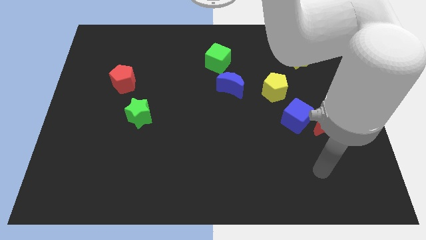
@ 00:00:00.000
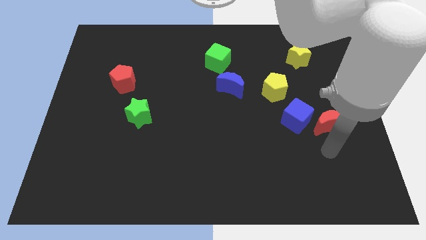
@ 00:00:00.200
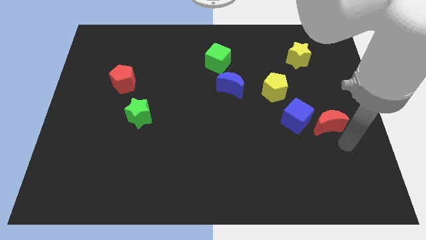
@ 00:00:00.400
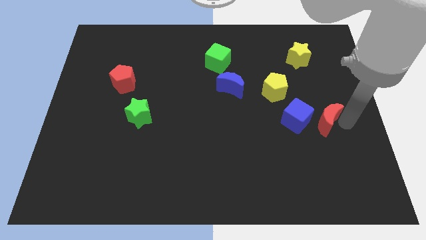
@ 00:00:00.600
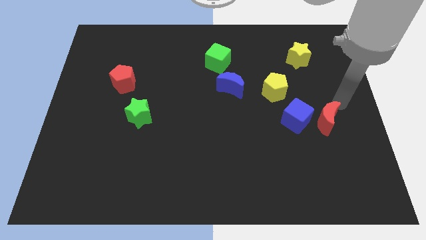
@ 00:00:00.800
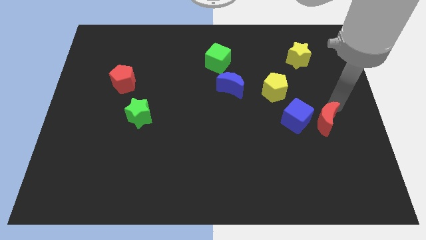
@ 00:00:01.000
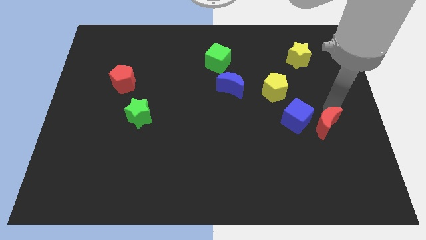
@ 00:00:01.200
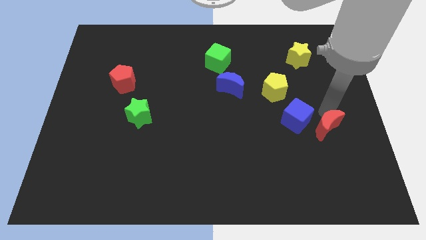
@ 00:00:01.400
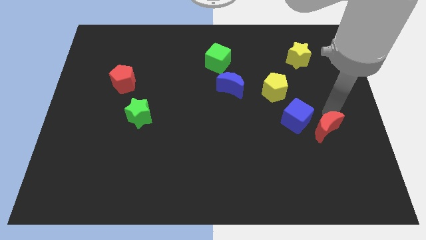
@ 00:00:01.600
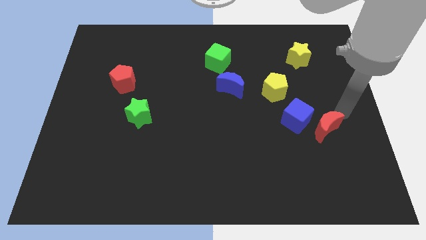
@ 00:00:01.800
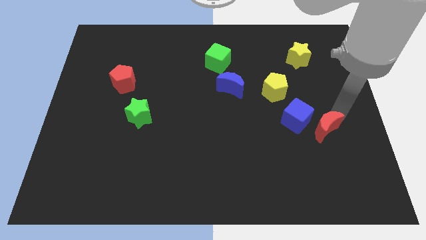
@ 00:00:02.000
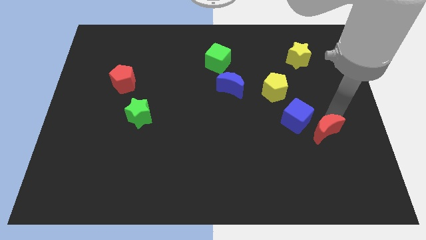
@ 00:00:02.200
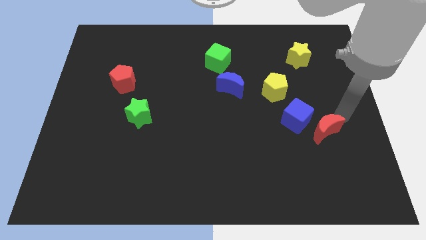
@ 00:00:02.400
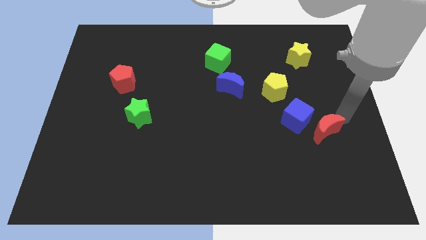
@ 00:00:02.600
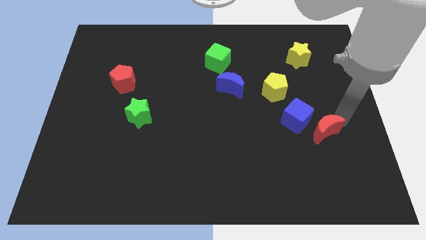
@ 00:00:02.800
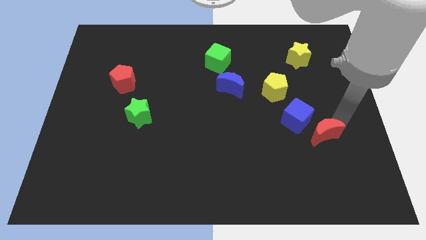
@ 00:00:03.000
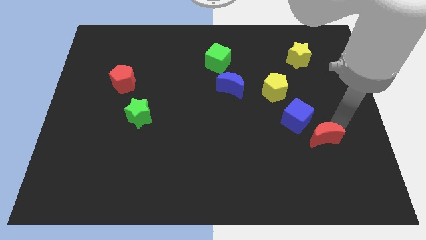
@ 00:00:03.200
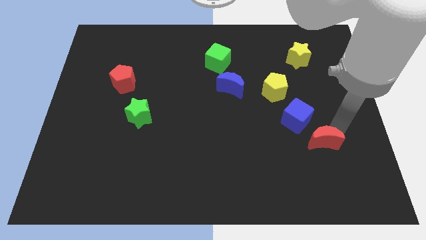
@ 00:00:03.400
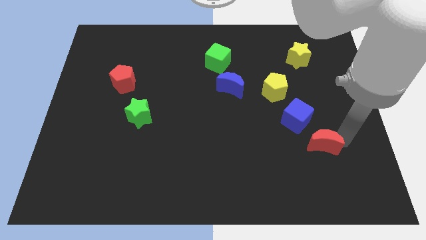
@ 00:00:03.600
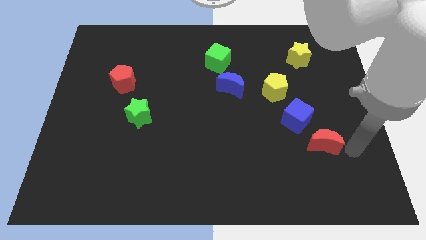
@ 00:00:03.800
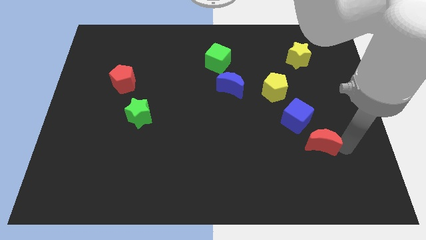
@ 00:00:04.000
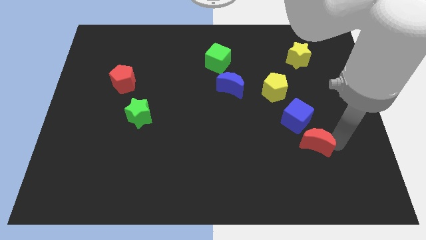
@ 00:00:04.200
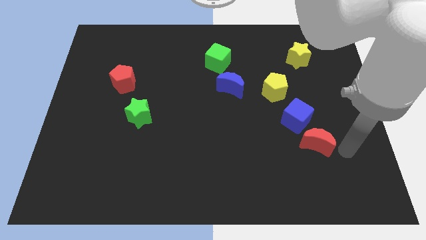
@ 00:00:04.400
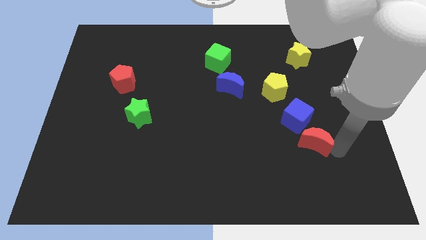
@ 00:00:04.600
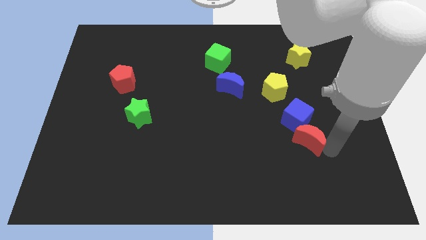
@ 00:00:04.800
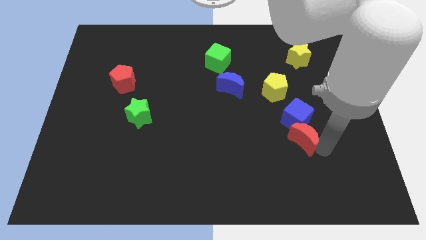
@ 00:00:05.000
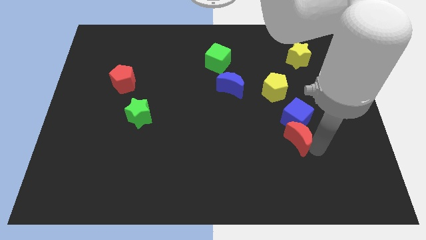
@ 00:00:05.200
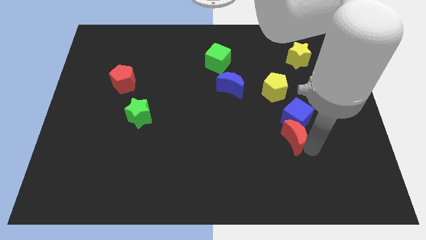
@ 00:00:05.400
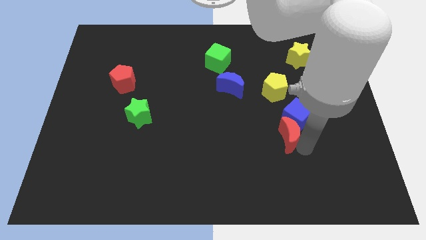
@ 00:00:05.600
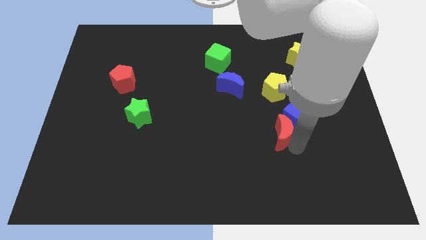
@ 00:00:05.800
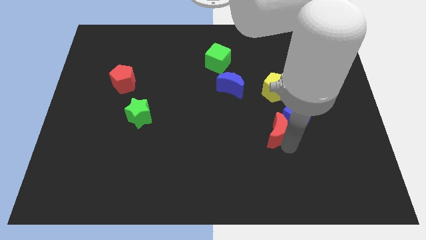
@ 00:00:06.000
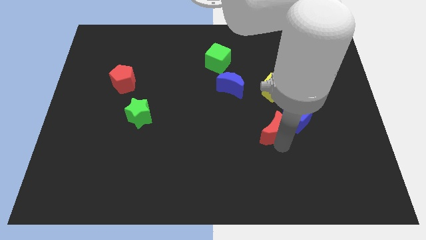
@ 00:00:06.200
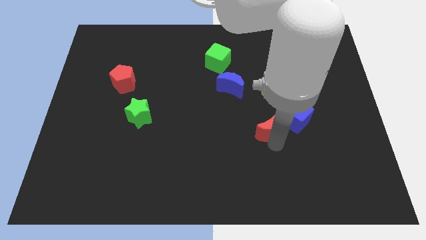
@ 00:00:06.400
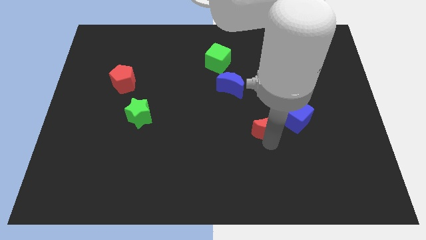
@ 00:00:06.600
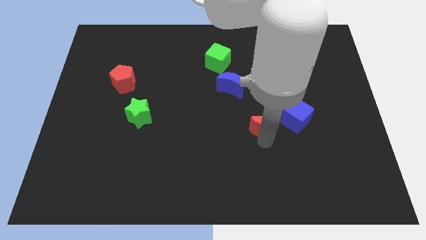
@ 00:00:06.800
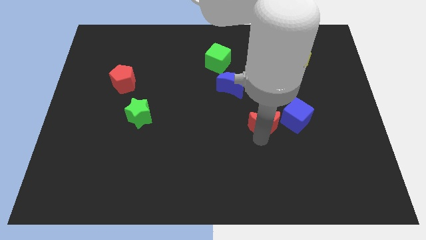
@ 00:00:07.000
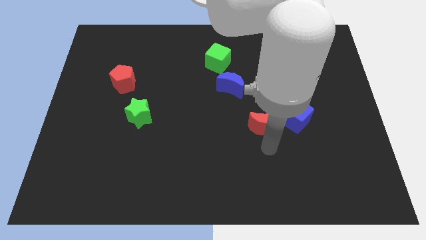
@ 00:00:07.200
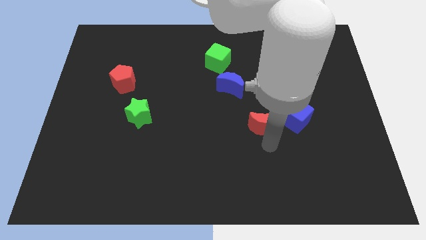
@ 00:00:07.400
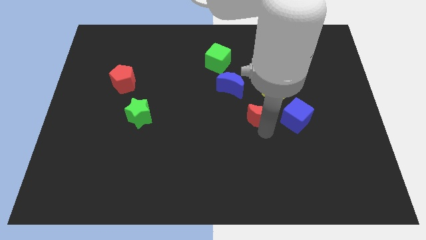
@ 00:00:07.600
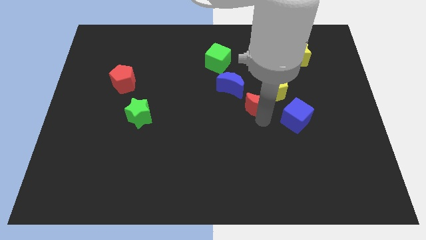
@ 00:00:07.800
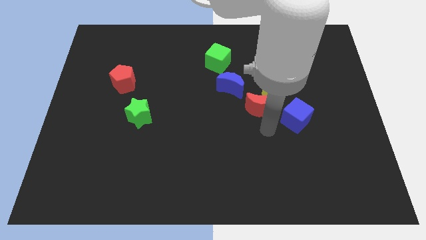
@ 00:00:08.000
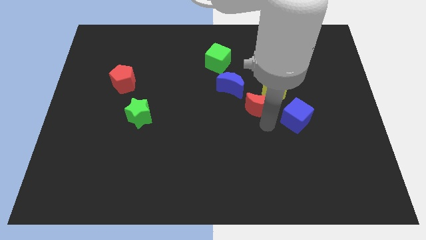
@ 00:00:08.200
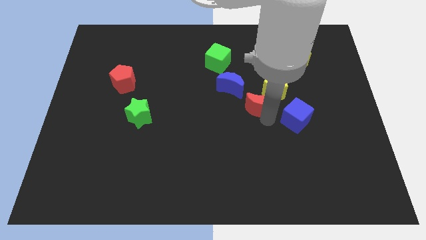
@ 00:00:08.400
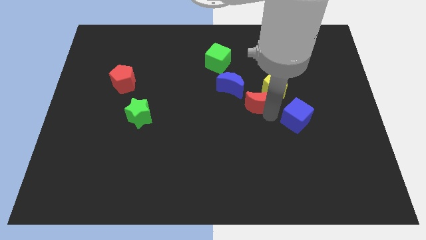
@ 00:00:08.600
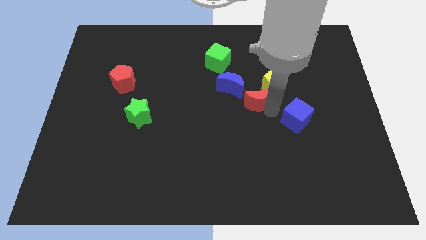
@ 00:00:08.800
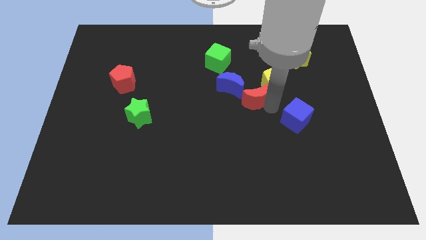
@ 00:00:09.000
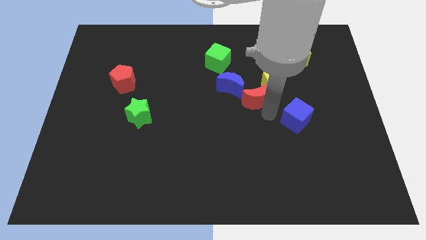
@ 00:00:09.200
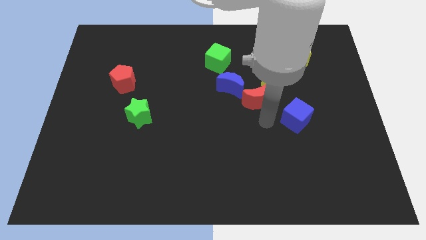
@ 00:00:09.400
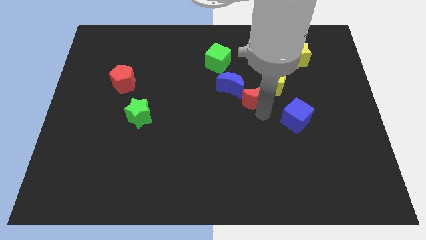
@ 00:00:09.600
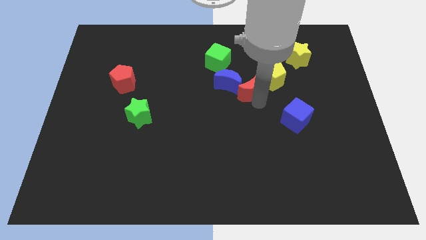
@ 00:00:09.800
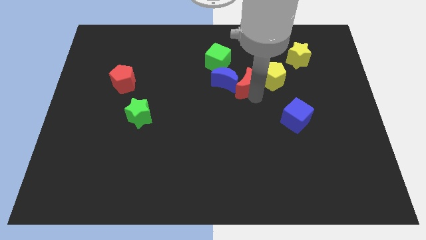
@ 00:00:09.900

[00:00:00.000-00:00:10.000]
push the red moon diagonally down and to the right of the green cube

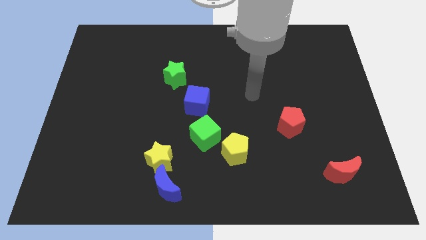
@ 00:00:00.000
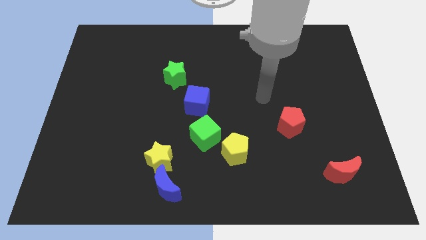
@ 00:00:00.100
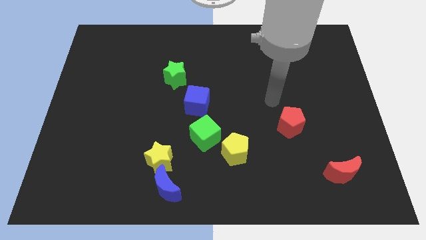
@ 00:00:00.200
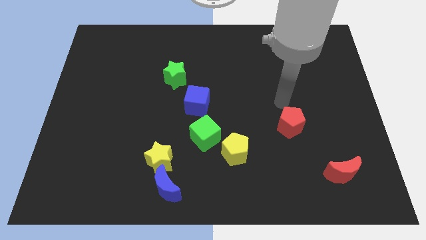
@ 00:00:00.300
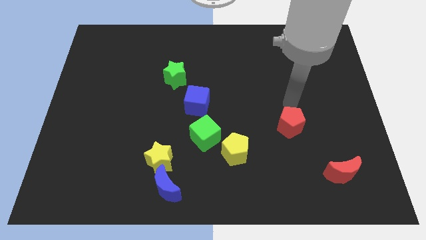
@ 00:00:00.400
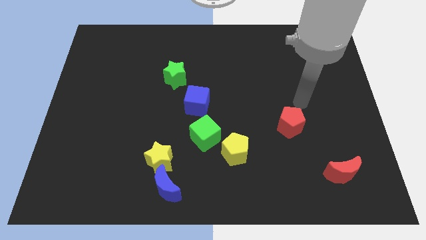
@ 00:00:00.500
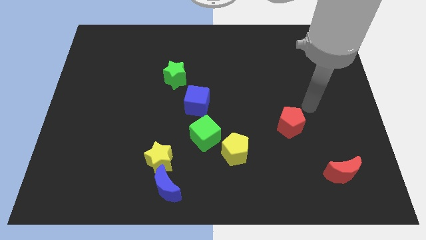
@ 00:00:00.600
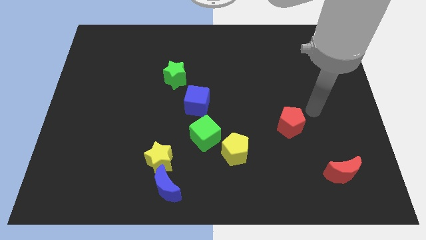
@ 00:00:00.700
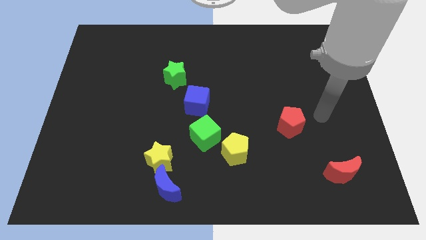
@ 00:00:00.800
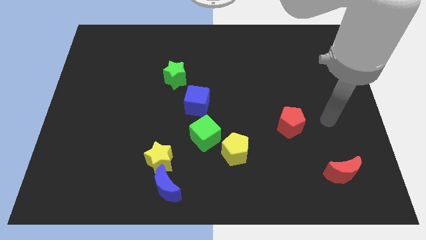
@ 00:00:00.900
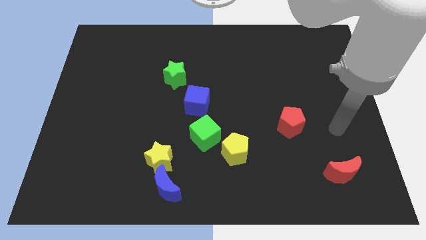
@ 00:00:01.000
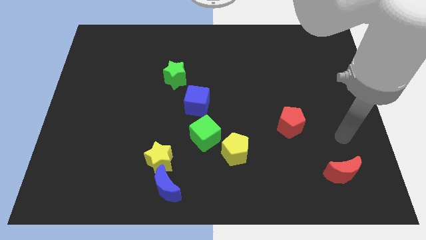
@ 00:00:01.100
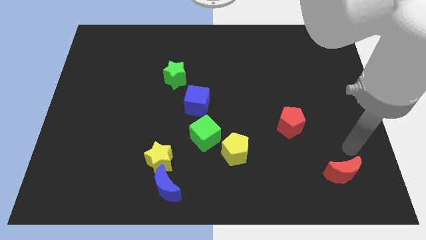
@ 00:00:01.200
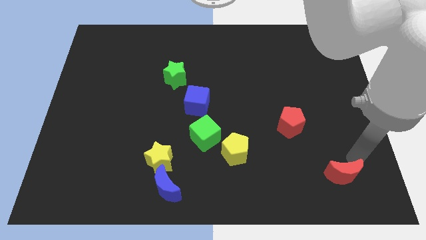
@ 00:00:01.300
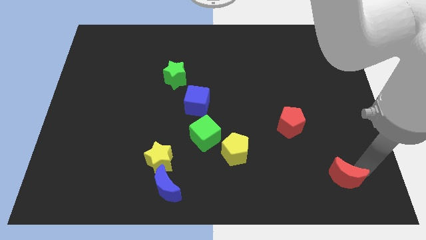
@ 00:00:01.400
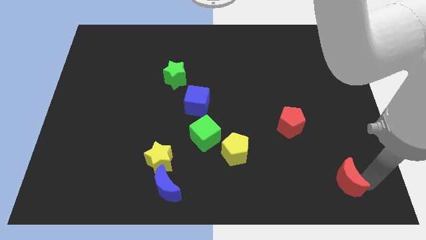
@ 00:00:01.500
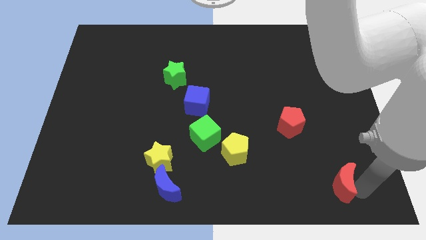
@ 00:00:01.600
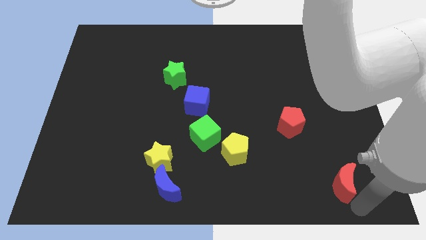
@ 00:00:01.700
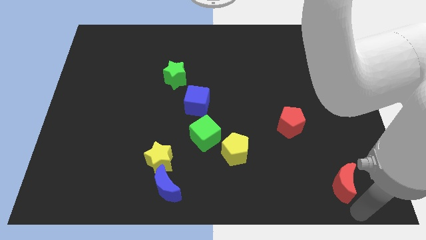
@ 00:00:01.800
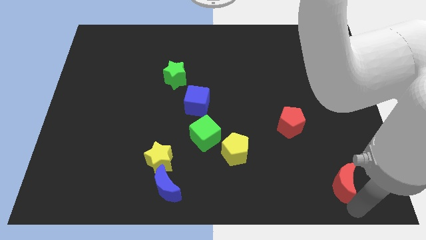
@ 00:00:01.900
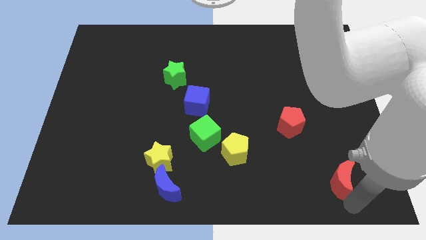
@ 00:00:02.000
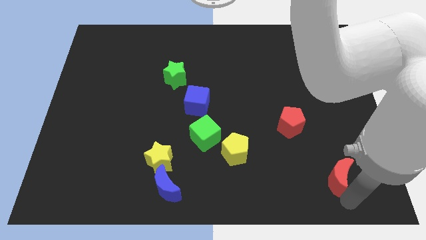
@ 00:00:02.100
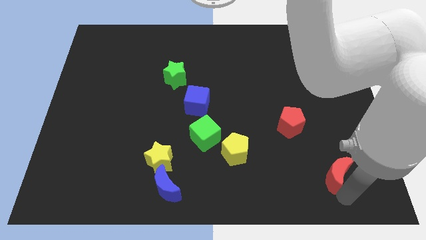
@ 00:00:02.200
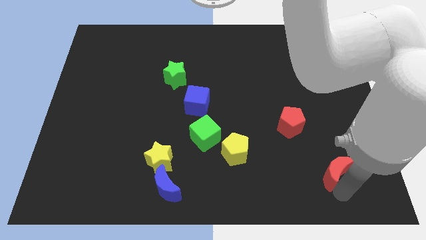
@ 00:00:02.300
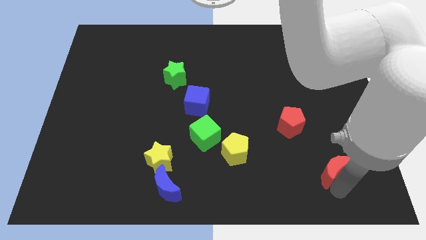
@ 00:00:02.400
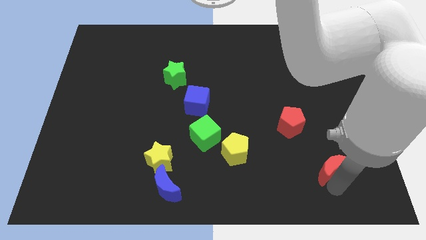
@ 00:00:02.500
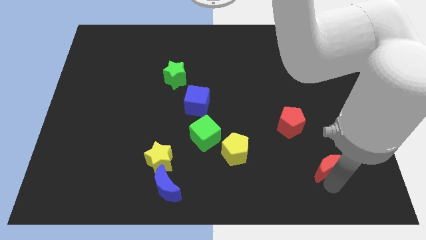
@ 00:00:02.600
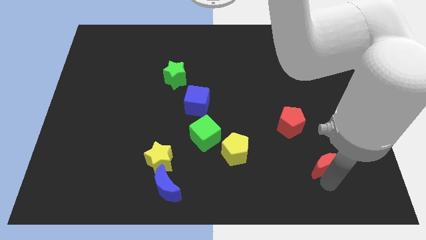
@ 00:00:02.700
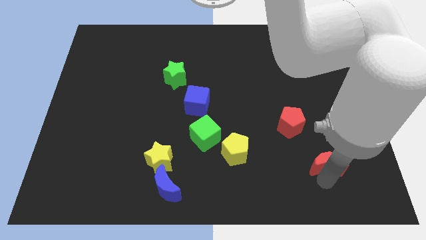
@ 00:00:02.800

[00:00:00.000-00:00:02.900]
push the red moon to the bottom right of the red pentagon
